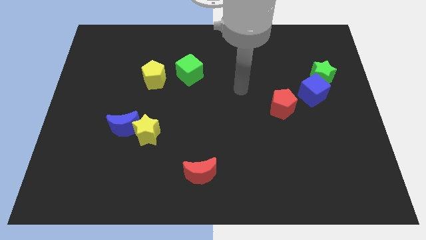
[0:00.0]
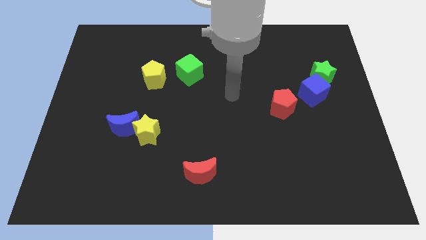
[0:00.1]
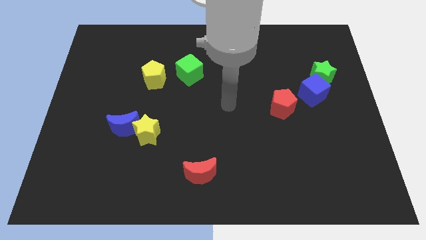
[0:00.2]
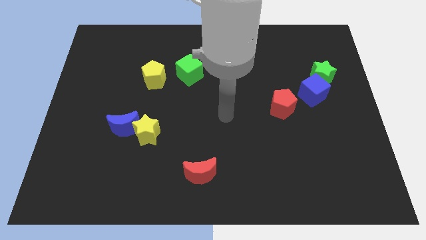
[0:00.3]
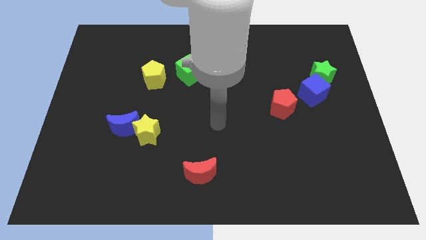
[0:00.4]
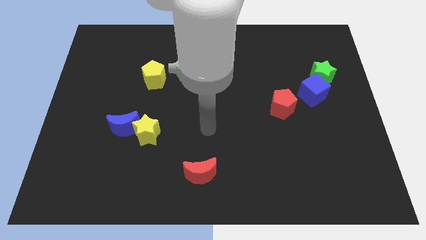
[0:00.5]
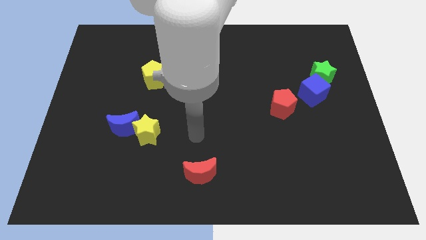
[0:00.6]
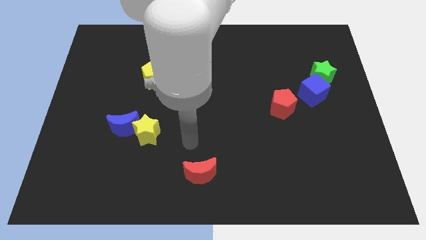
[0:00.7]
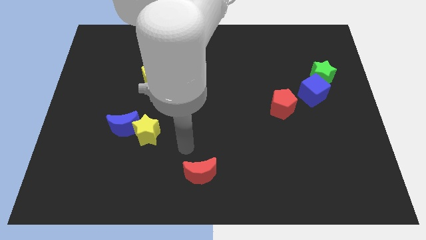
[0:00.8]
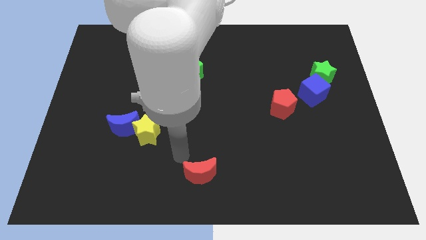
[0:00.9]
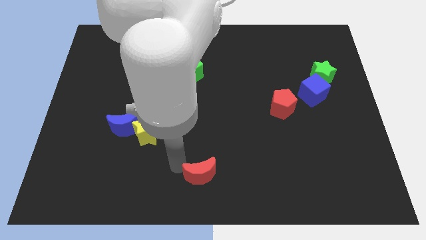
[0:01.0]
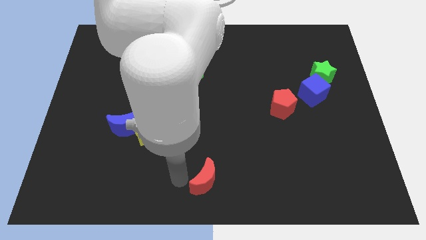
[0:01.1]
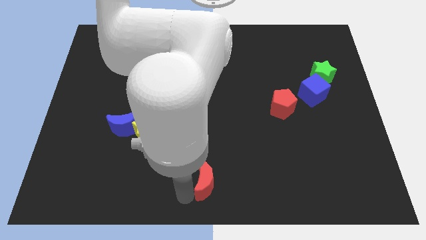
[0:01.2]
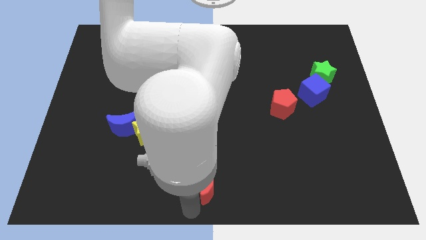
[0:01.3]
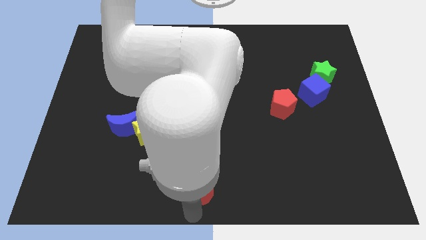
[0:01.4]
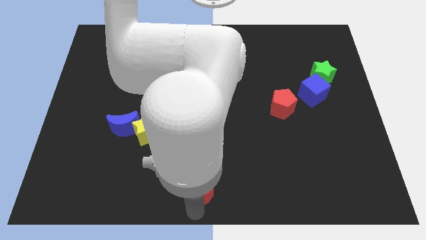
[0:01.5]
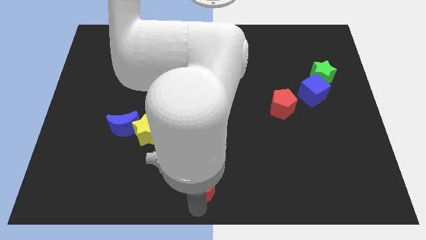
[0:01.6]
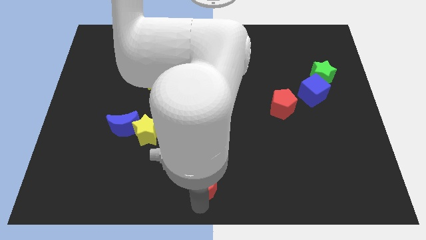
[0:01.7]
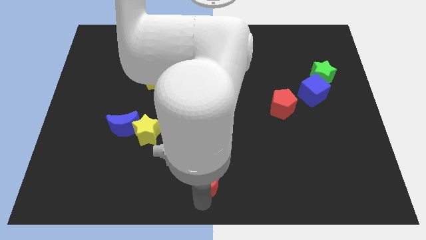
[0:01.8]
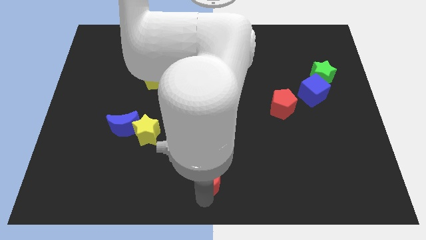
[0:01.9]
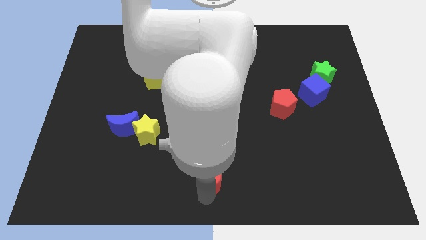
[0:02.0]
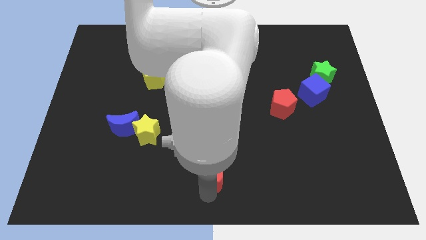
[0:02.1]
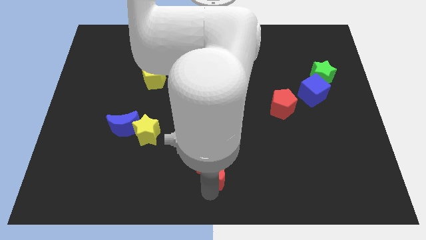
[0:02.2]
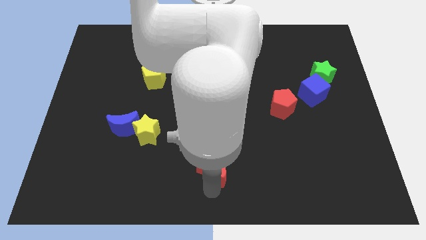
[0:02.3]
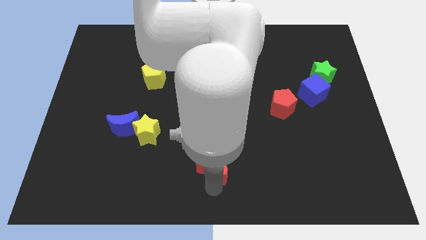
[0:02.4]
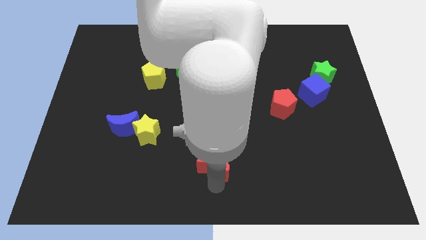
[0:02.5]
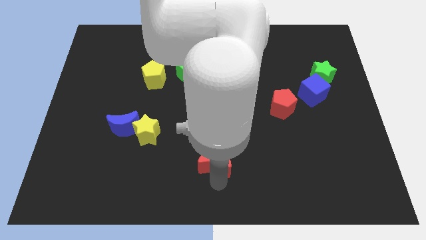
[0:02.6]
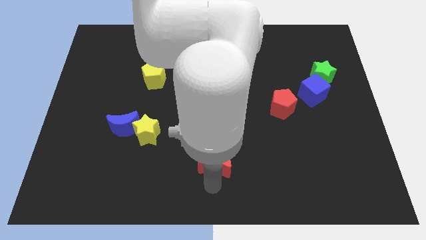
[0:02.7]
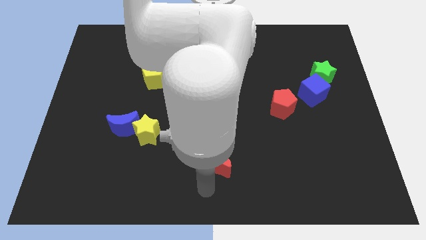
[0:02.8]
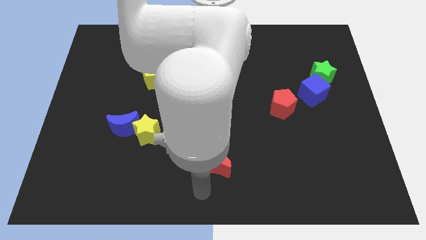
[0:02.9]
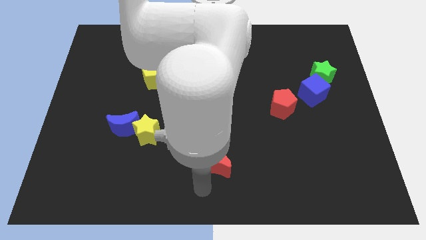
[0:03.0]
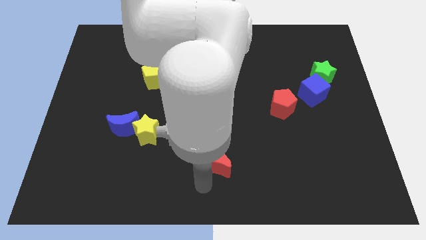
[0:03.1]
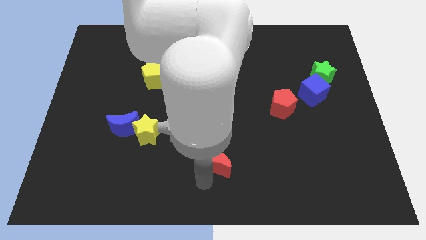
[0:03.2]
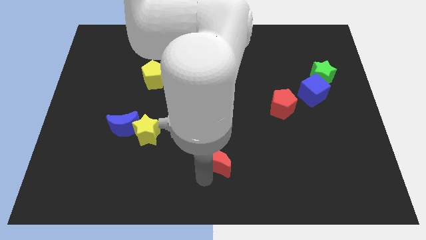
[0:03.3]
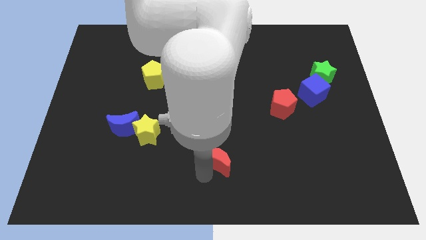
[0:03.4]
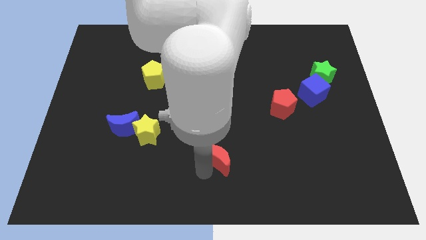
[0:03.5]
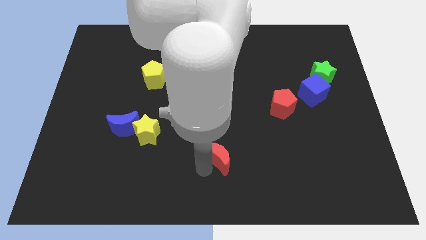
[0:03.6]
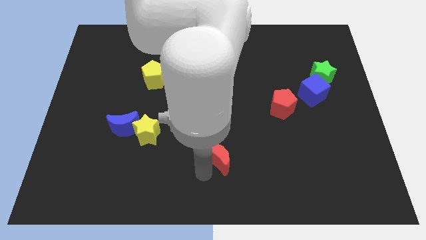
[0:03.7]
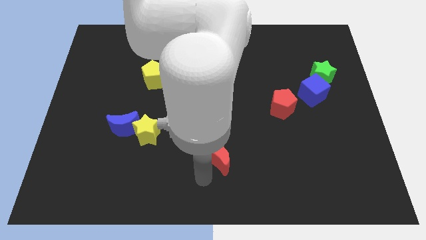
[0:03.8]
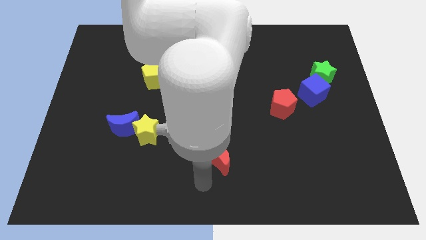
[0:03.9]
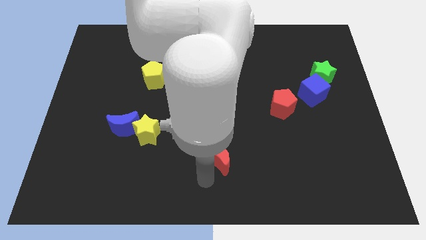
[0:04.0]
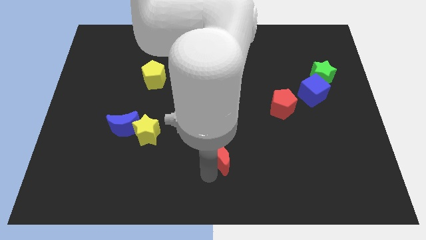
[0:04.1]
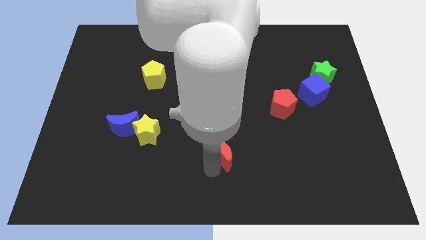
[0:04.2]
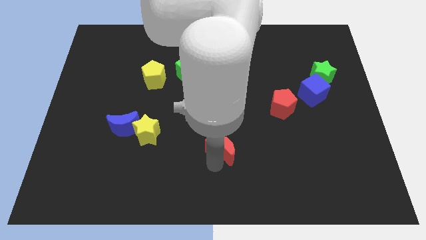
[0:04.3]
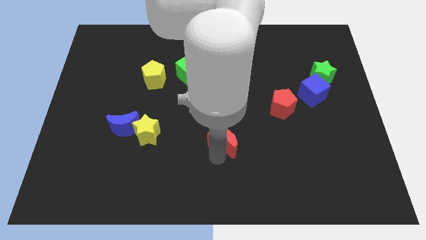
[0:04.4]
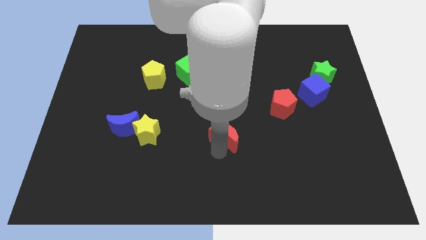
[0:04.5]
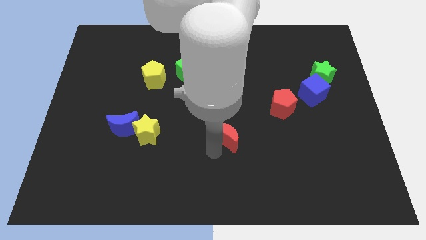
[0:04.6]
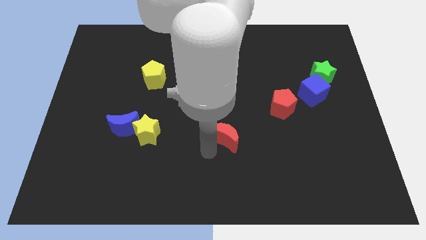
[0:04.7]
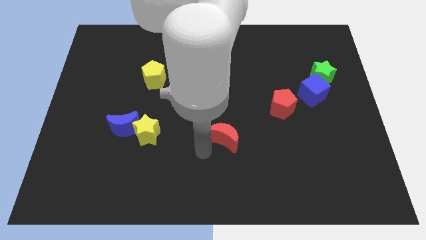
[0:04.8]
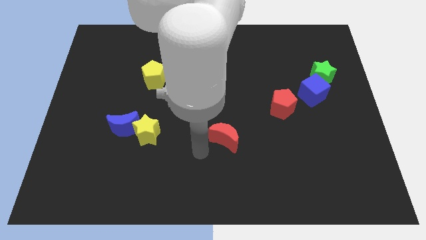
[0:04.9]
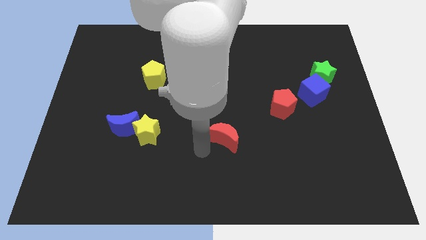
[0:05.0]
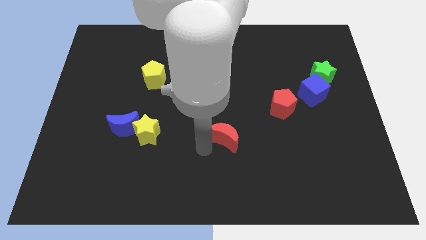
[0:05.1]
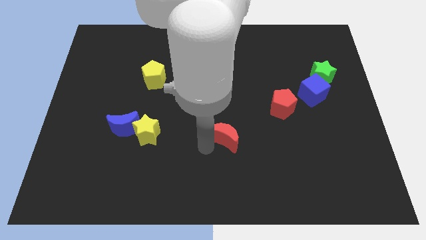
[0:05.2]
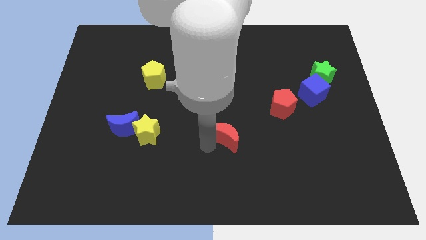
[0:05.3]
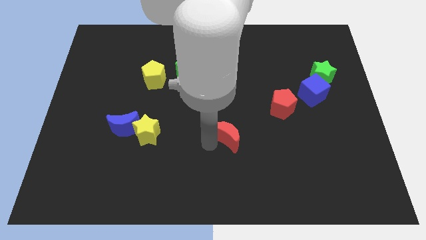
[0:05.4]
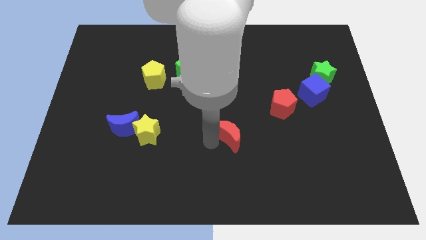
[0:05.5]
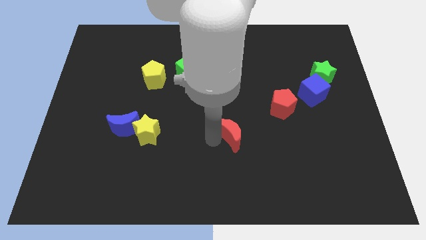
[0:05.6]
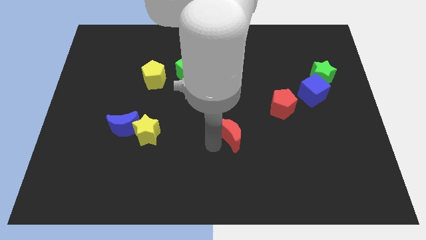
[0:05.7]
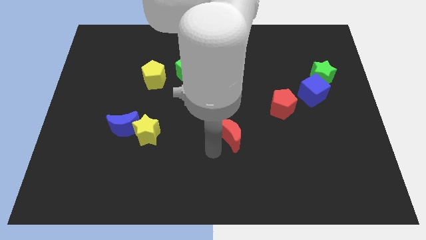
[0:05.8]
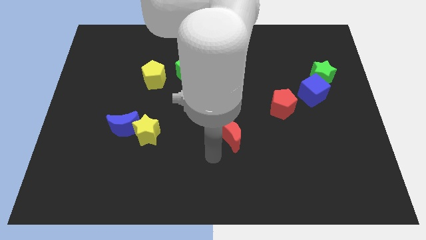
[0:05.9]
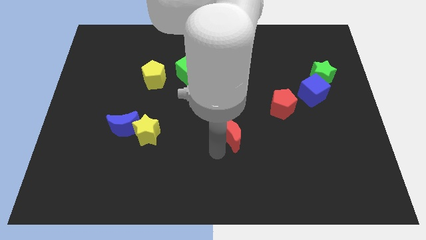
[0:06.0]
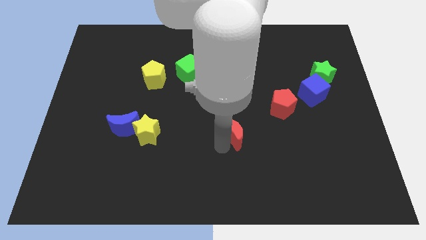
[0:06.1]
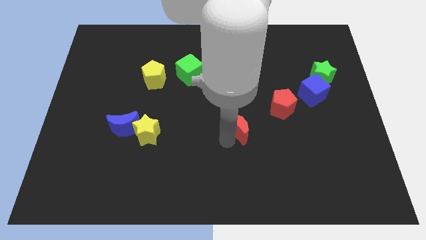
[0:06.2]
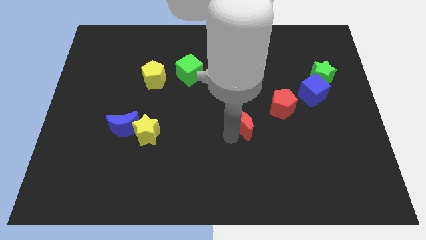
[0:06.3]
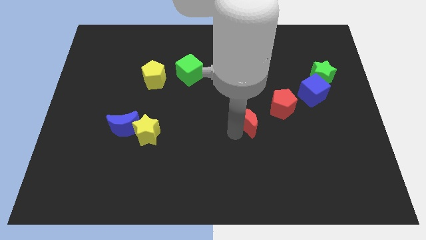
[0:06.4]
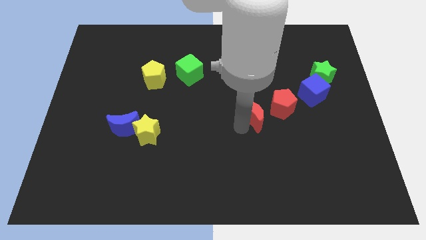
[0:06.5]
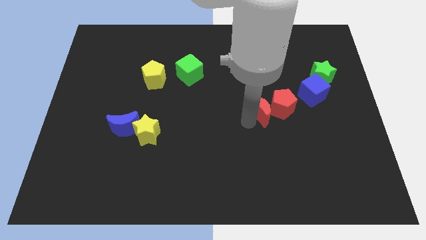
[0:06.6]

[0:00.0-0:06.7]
move the red moon upwards and to the right diagonally

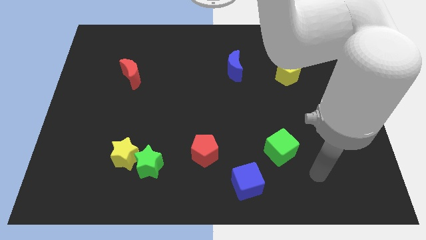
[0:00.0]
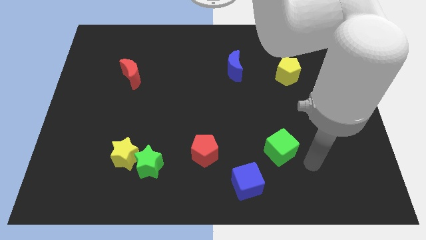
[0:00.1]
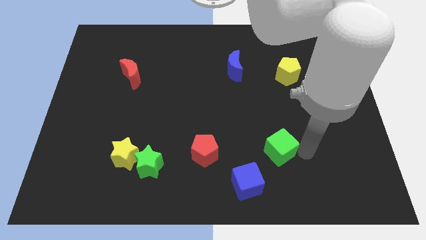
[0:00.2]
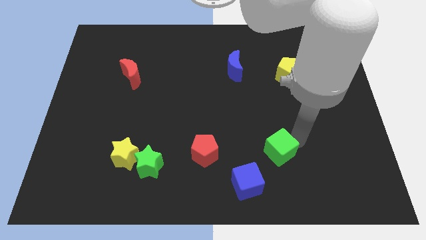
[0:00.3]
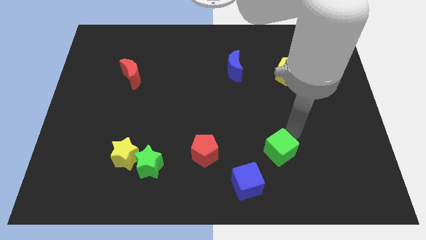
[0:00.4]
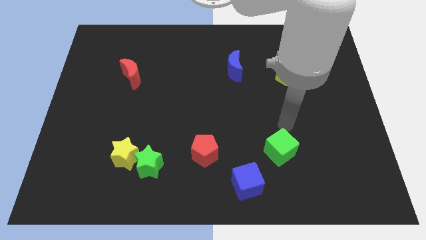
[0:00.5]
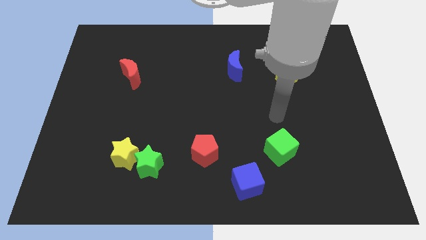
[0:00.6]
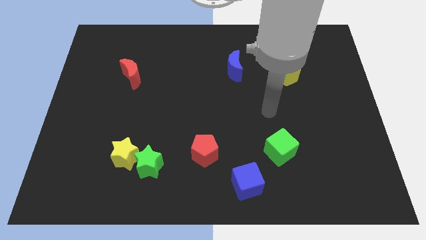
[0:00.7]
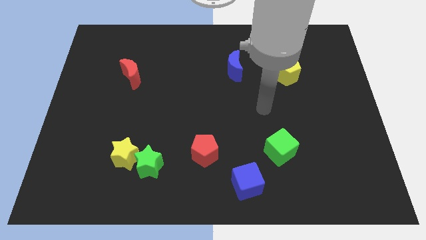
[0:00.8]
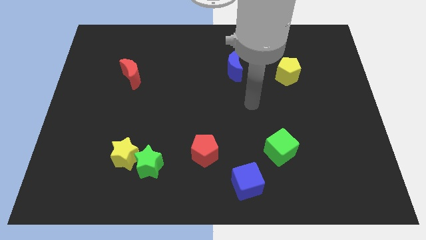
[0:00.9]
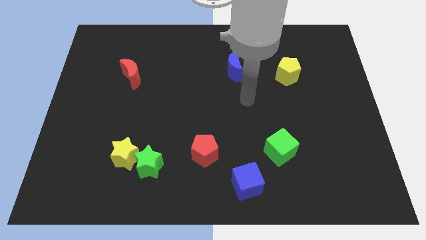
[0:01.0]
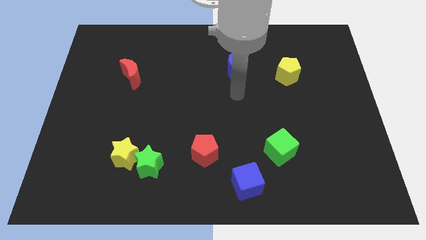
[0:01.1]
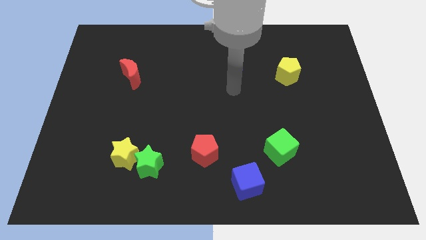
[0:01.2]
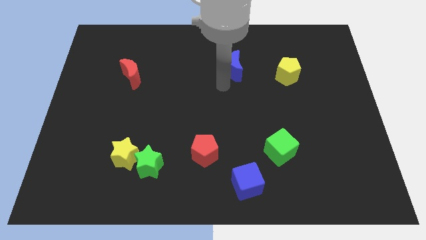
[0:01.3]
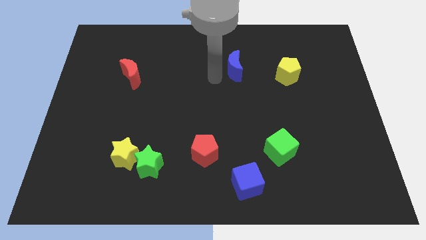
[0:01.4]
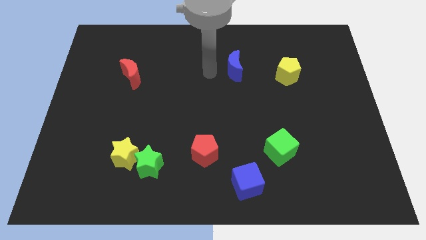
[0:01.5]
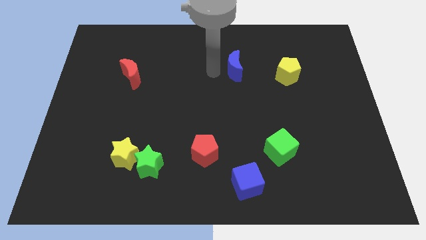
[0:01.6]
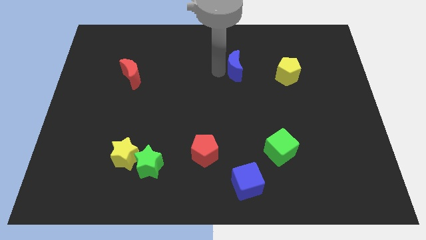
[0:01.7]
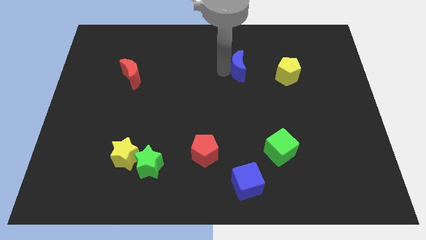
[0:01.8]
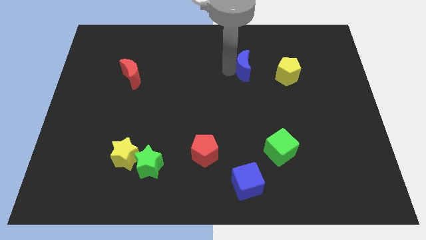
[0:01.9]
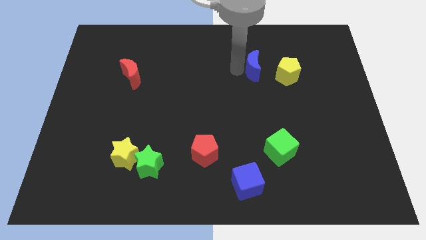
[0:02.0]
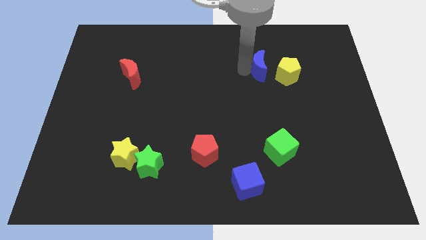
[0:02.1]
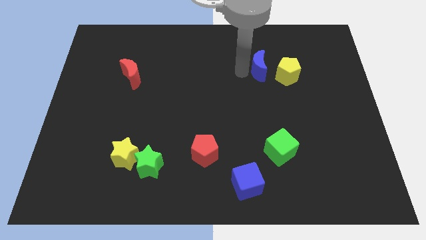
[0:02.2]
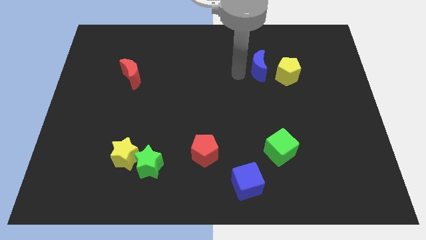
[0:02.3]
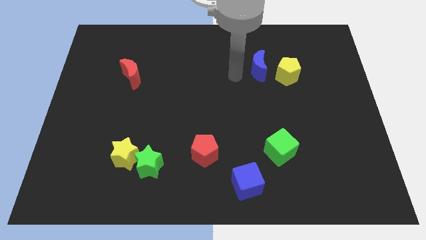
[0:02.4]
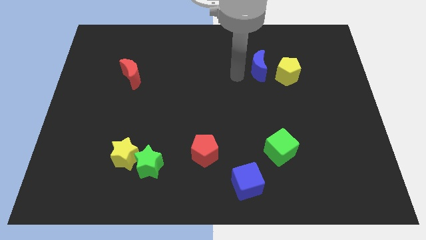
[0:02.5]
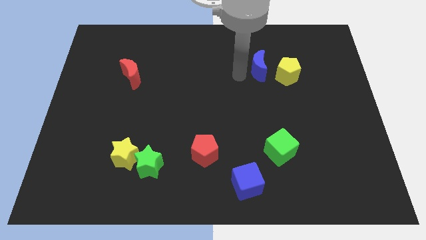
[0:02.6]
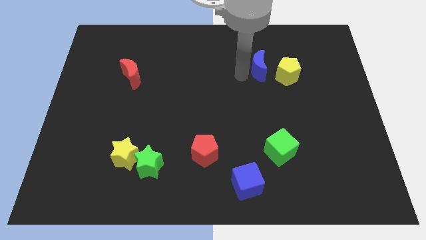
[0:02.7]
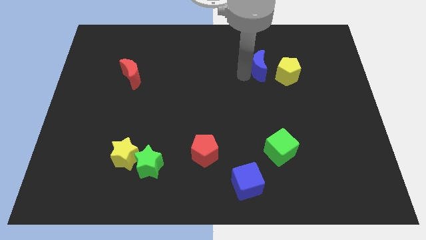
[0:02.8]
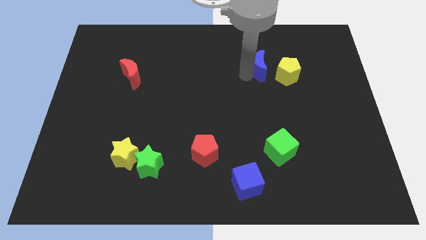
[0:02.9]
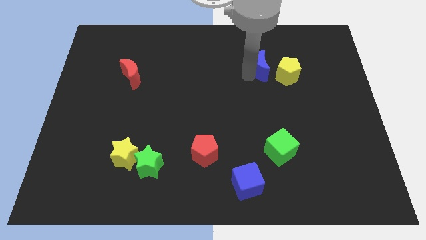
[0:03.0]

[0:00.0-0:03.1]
slide the blue moon a bit to the right
